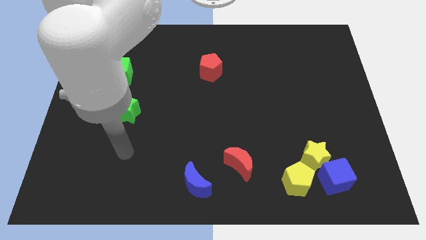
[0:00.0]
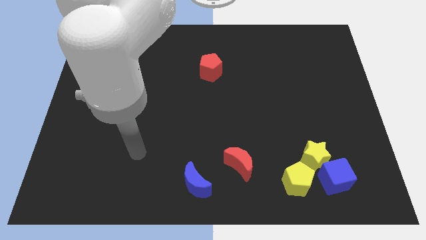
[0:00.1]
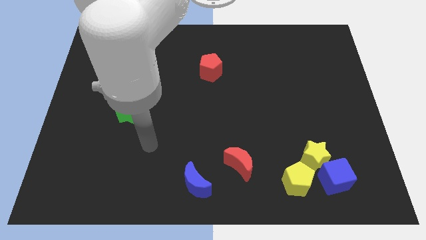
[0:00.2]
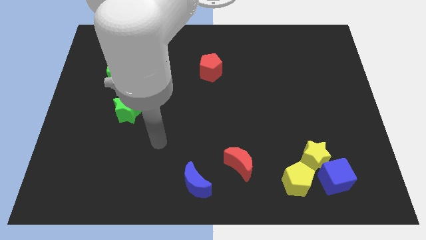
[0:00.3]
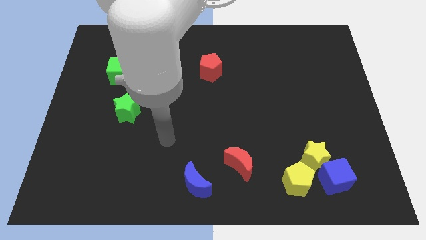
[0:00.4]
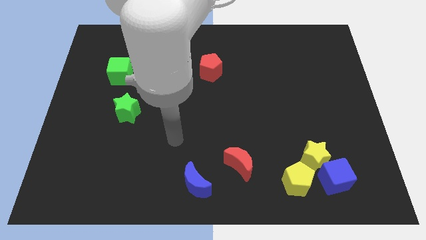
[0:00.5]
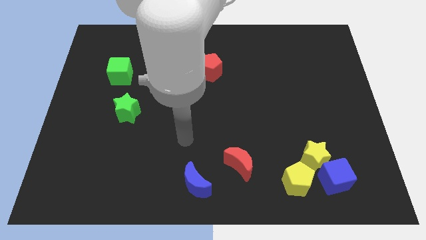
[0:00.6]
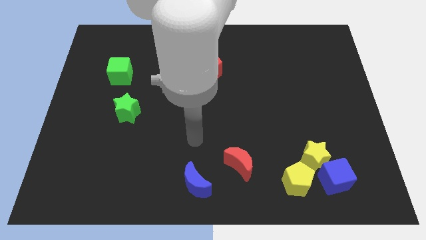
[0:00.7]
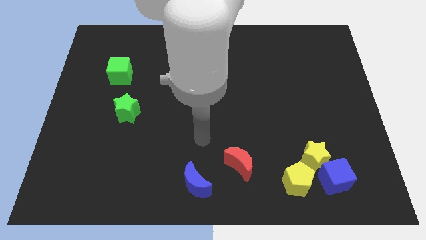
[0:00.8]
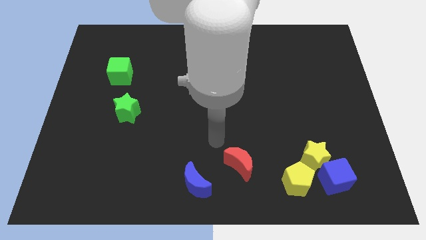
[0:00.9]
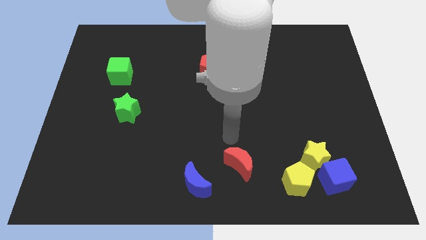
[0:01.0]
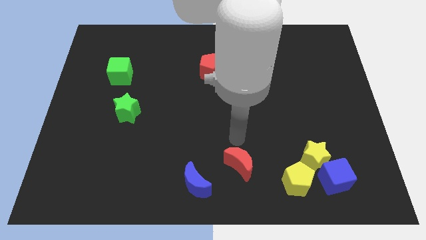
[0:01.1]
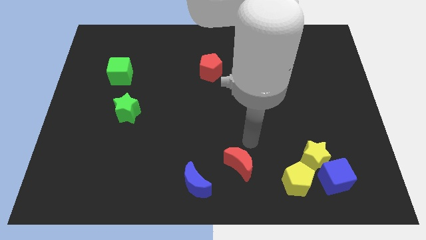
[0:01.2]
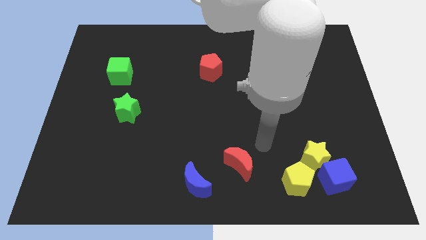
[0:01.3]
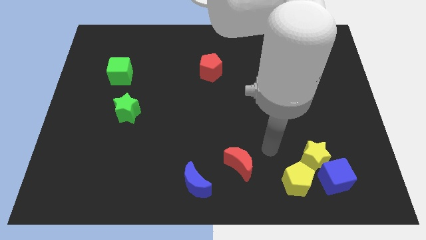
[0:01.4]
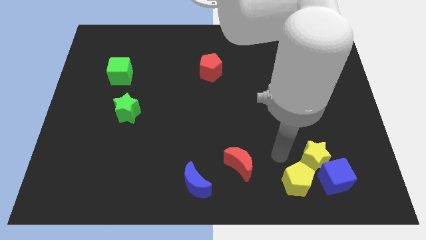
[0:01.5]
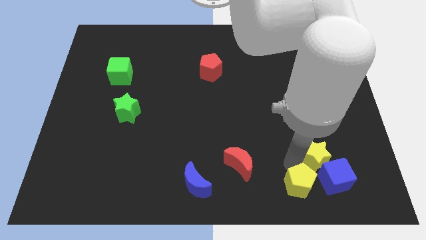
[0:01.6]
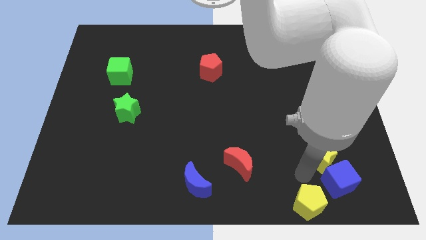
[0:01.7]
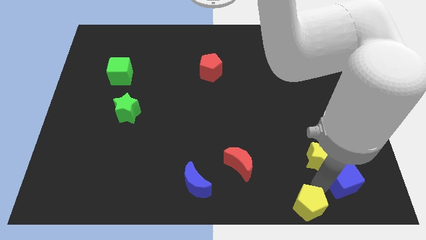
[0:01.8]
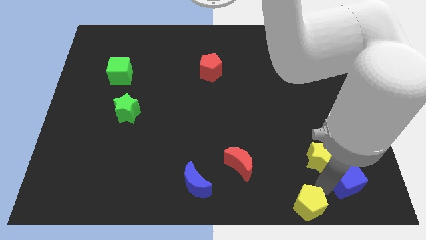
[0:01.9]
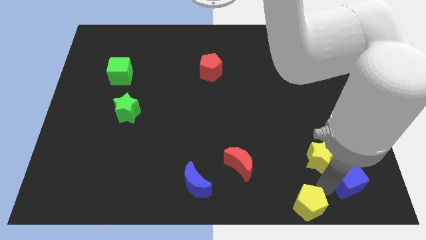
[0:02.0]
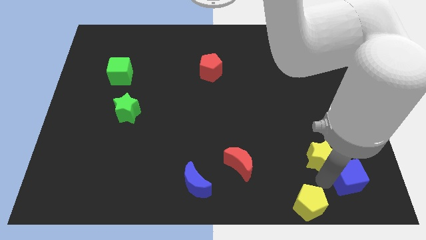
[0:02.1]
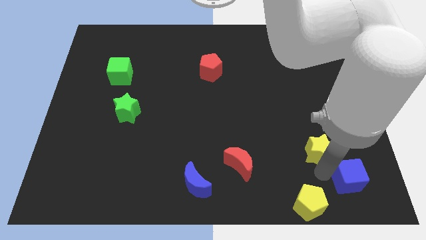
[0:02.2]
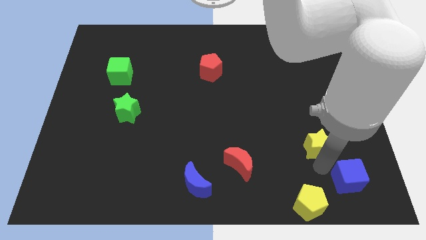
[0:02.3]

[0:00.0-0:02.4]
move the yellow star away from the blue cube and yellow pentagon

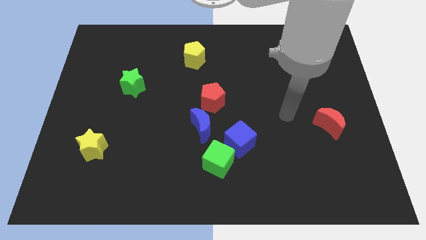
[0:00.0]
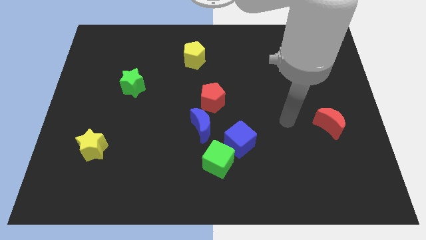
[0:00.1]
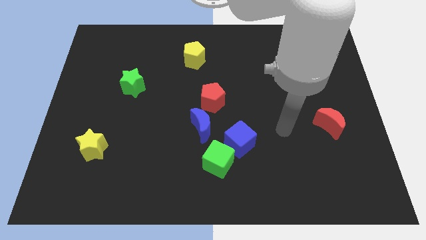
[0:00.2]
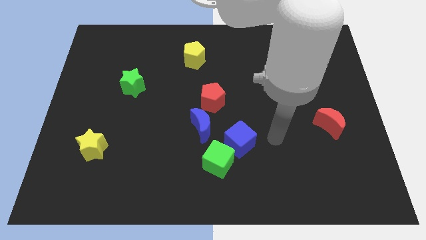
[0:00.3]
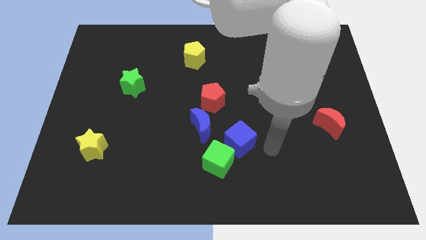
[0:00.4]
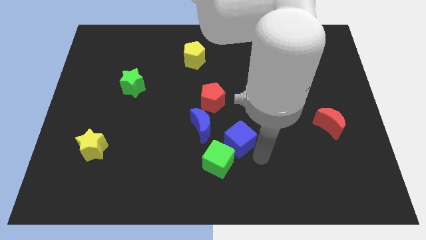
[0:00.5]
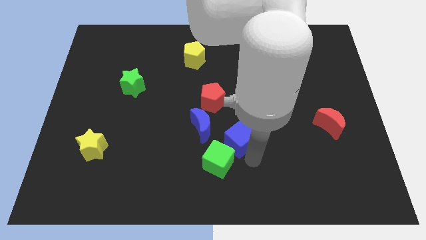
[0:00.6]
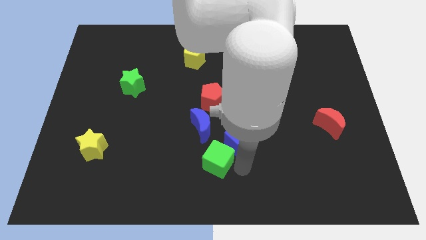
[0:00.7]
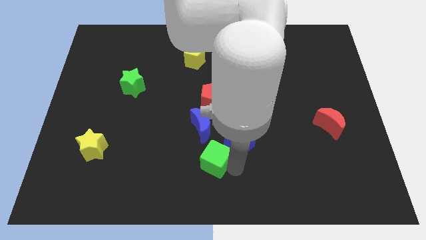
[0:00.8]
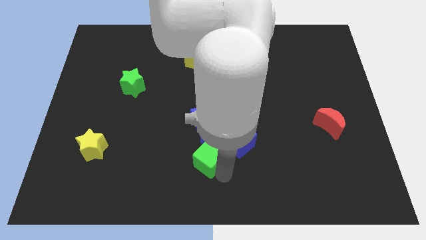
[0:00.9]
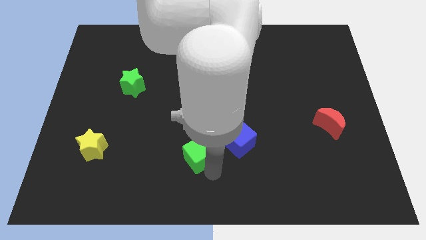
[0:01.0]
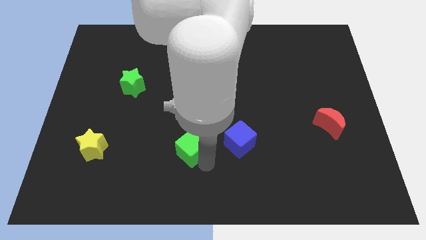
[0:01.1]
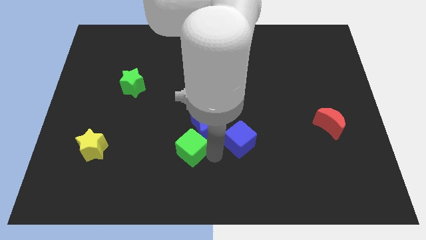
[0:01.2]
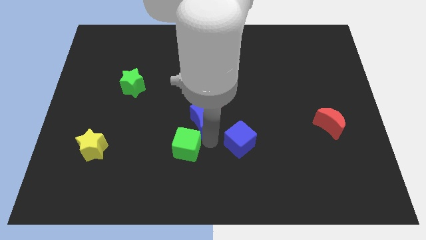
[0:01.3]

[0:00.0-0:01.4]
move the blue cube away from the green cube and blue moon

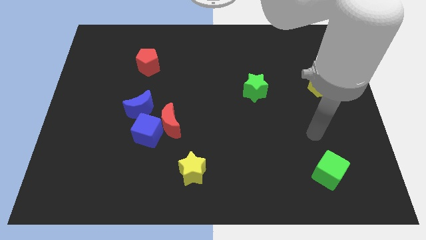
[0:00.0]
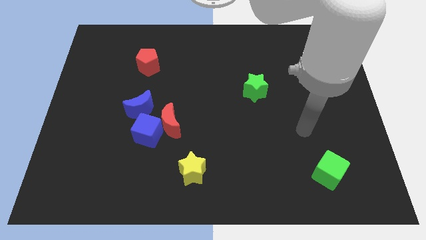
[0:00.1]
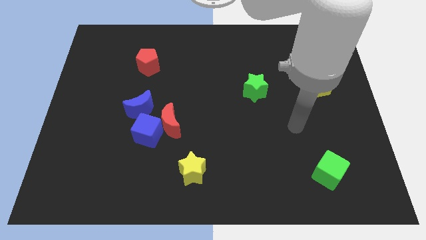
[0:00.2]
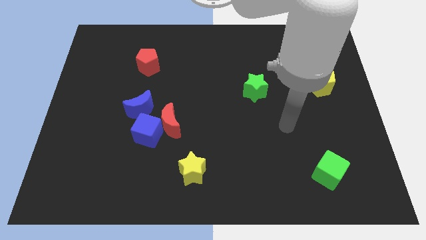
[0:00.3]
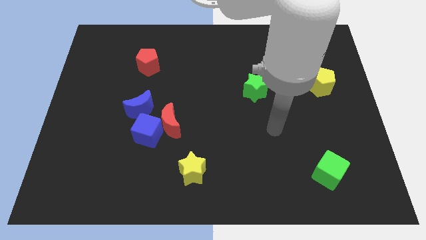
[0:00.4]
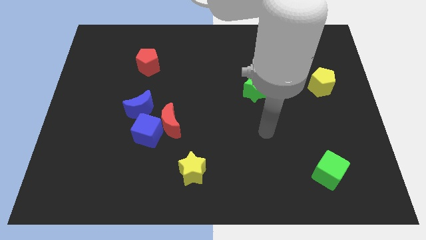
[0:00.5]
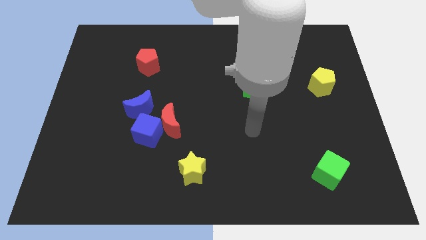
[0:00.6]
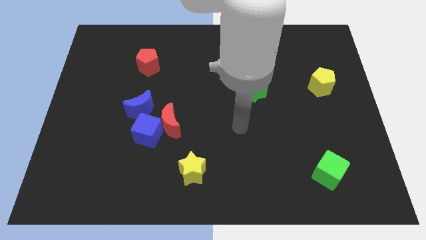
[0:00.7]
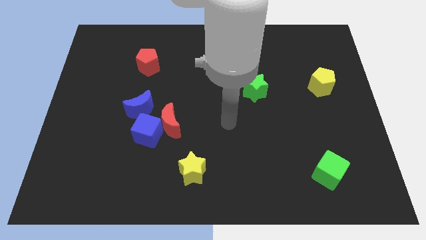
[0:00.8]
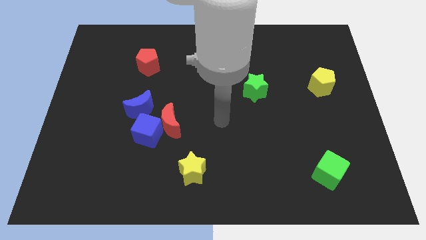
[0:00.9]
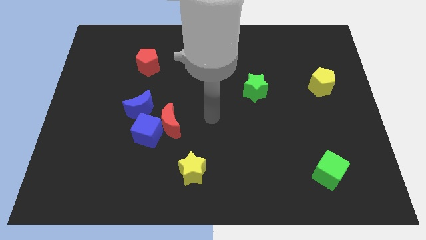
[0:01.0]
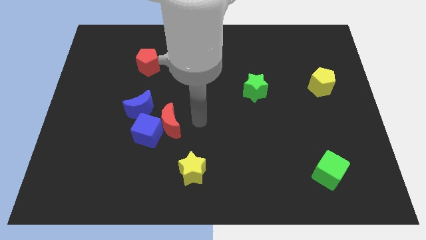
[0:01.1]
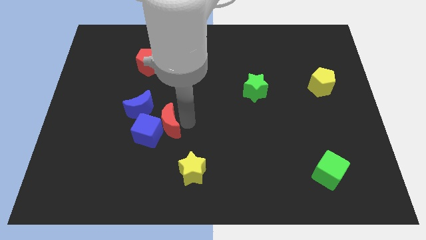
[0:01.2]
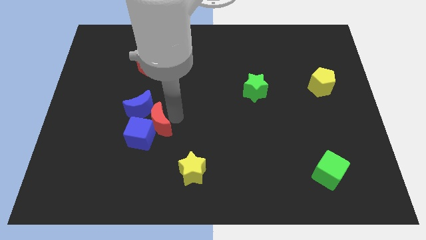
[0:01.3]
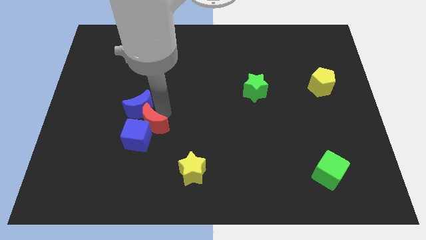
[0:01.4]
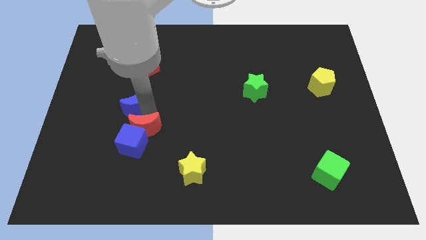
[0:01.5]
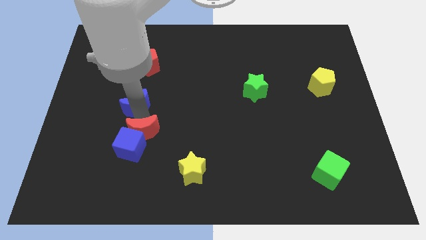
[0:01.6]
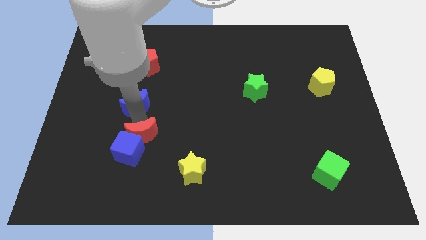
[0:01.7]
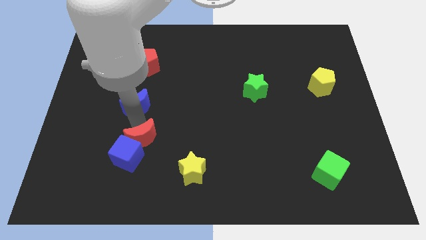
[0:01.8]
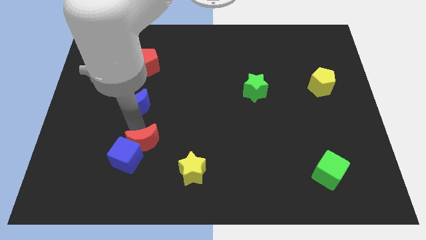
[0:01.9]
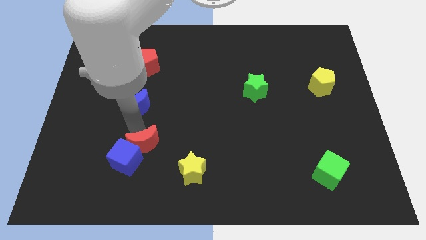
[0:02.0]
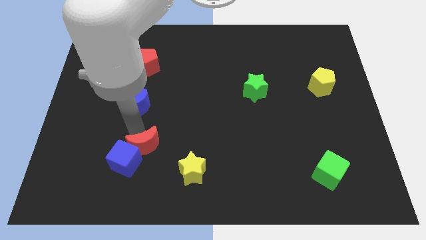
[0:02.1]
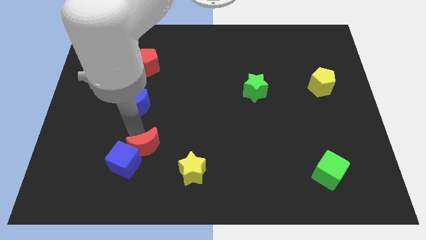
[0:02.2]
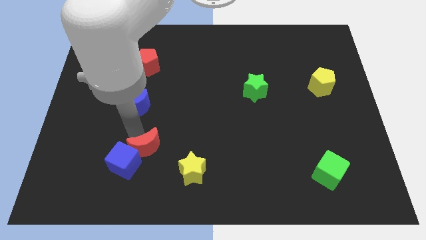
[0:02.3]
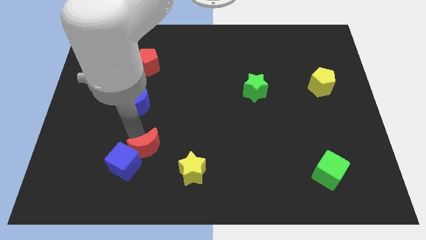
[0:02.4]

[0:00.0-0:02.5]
move the blue cube away from the red moon and blue moon

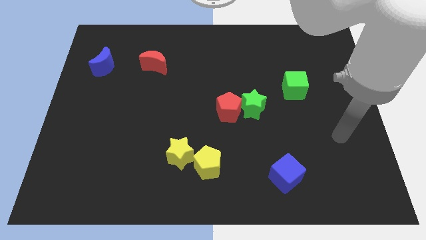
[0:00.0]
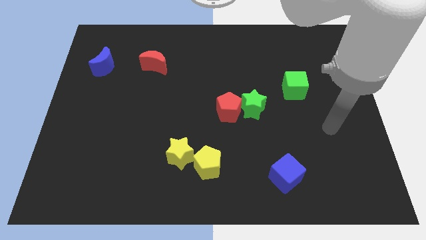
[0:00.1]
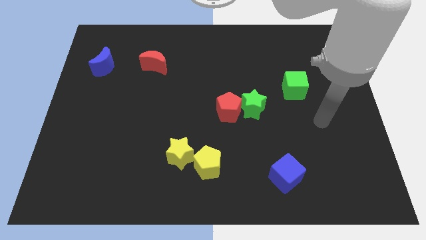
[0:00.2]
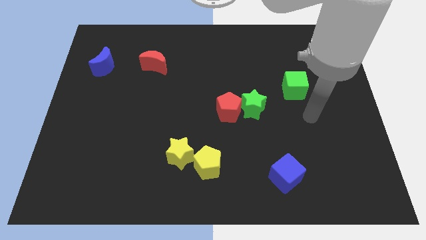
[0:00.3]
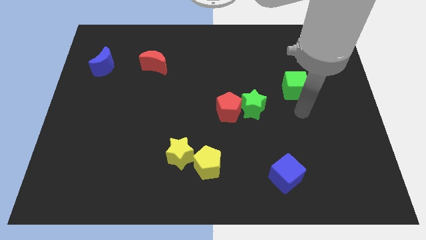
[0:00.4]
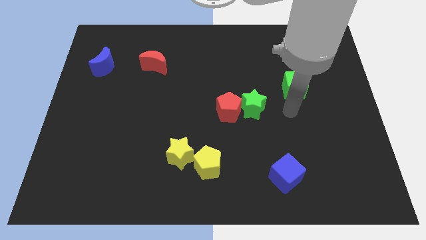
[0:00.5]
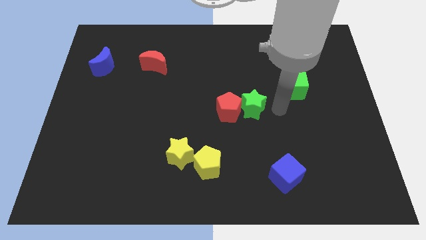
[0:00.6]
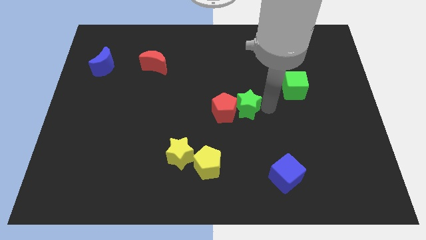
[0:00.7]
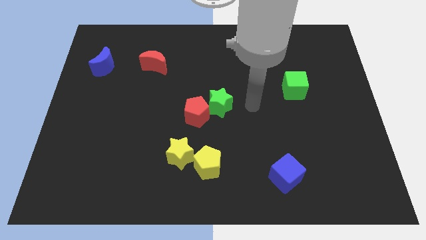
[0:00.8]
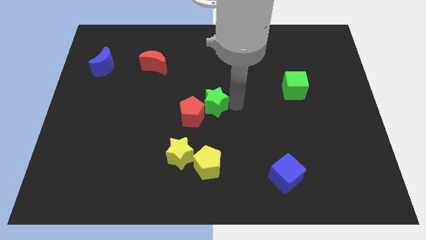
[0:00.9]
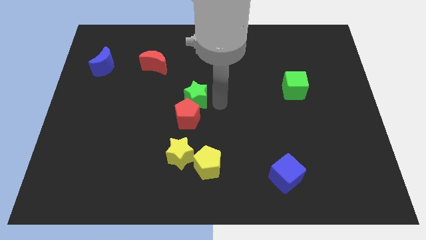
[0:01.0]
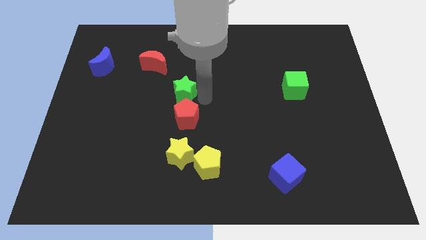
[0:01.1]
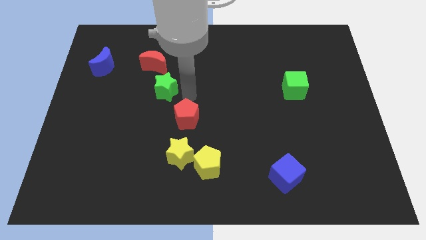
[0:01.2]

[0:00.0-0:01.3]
pull the red pentagon apart from the green star

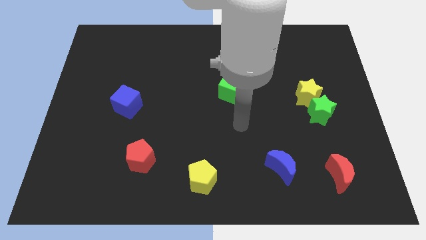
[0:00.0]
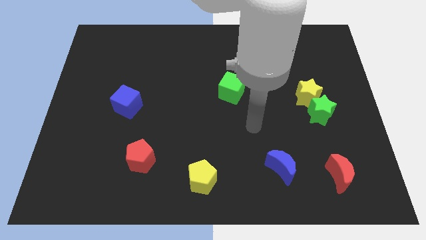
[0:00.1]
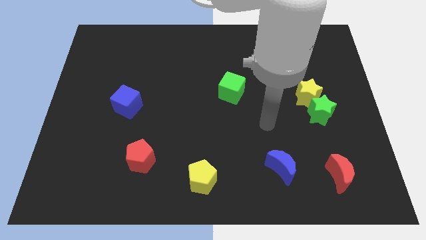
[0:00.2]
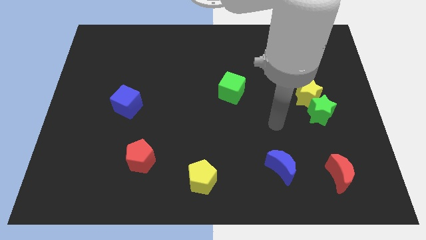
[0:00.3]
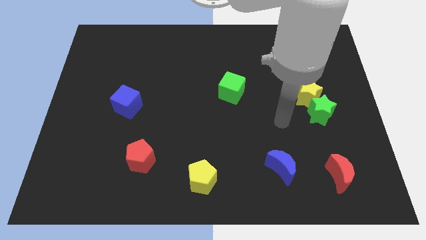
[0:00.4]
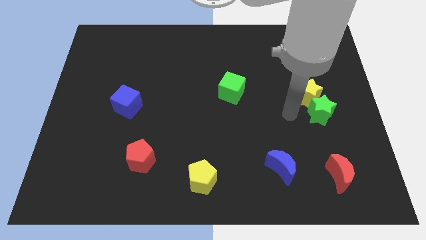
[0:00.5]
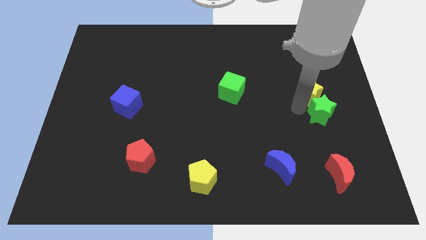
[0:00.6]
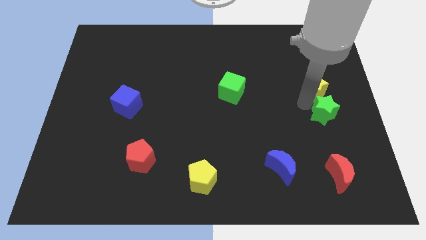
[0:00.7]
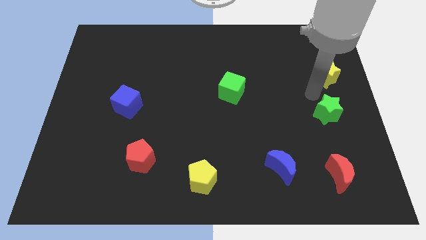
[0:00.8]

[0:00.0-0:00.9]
pull the green star apart from the yellow star

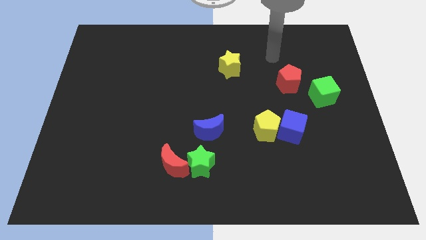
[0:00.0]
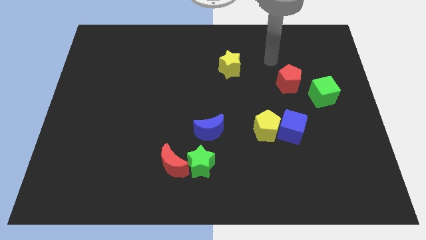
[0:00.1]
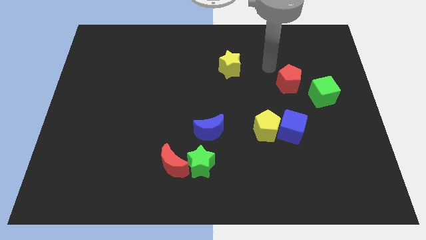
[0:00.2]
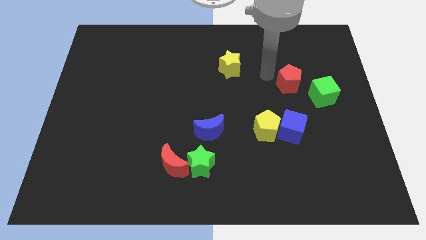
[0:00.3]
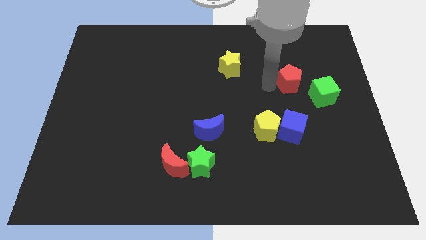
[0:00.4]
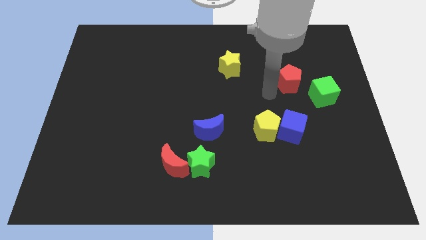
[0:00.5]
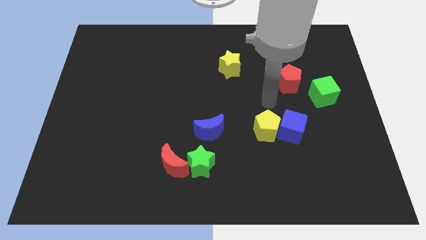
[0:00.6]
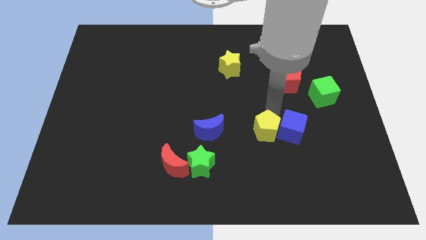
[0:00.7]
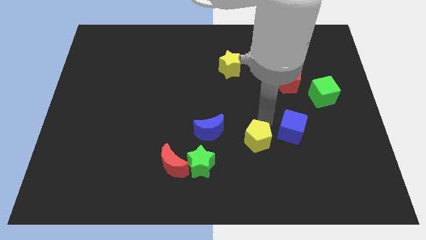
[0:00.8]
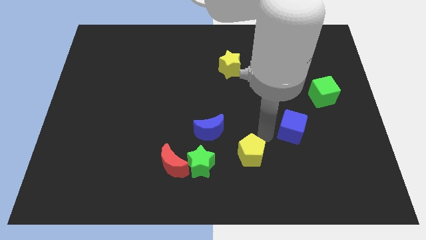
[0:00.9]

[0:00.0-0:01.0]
move the blue cube away from the yellow pentagon

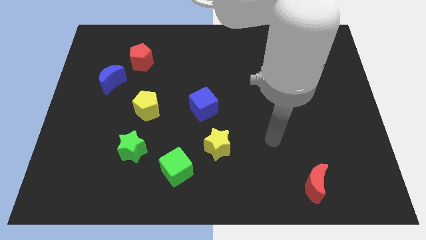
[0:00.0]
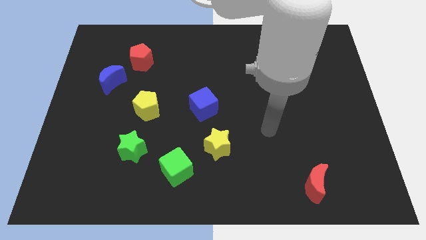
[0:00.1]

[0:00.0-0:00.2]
pull the red pentagon apart from the blue moon
